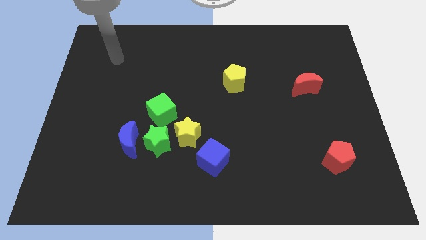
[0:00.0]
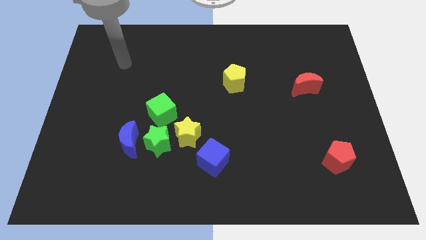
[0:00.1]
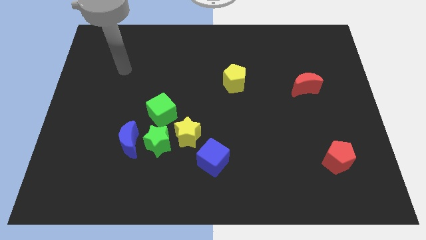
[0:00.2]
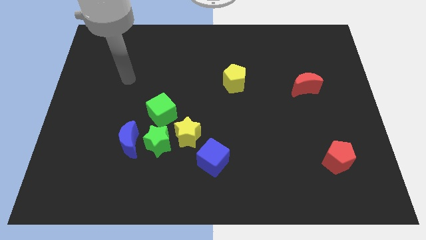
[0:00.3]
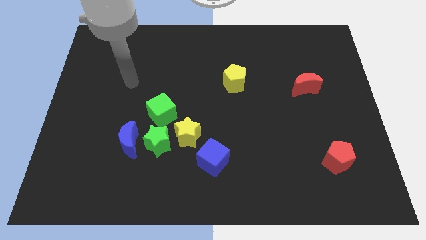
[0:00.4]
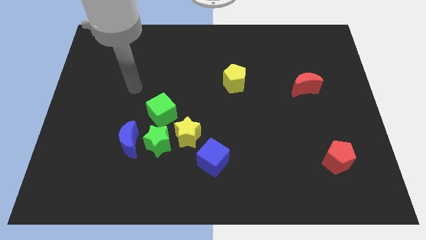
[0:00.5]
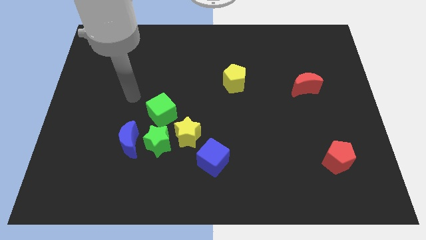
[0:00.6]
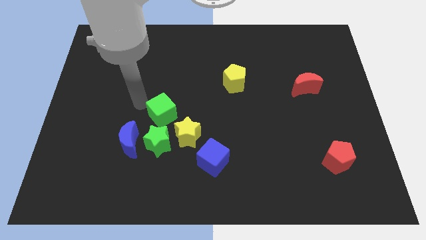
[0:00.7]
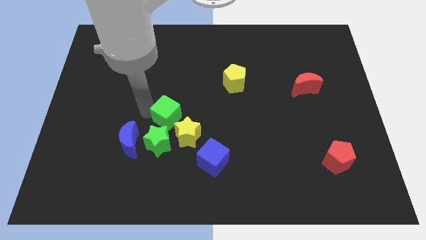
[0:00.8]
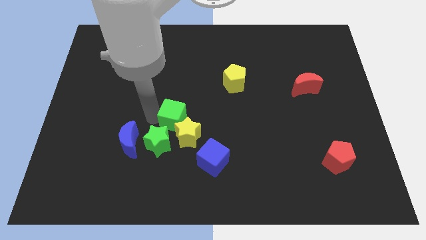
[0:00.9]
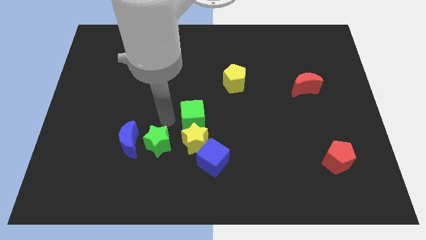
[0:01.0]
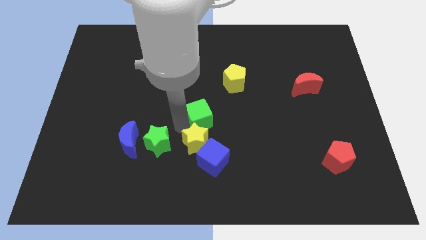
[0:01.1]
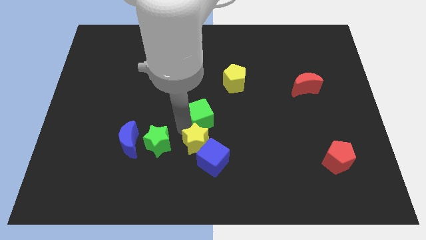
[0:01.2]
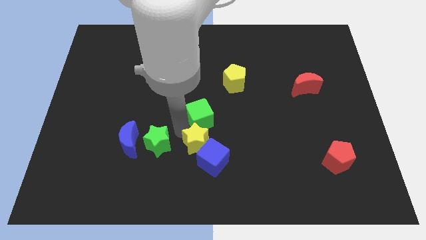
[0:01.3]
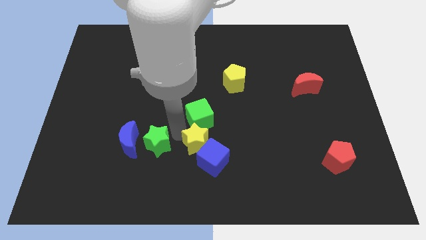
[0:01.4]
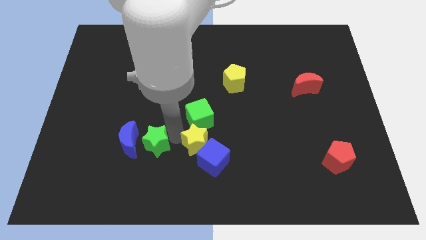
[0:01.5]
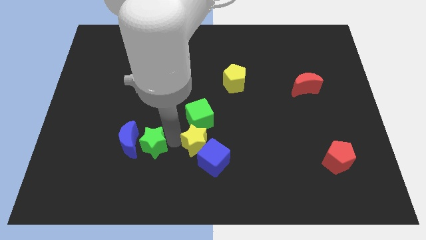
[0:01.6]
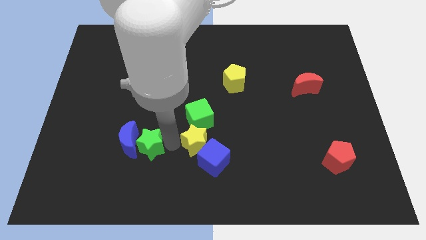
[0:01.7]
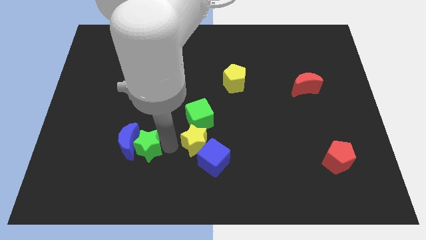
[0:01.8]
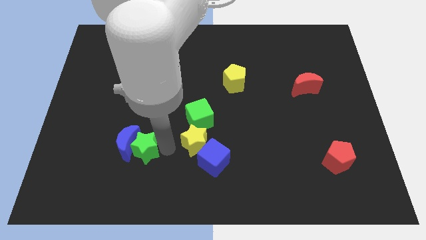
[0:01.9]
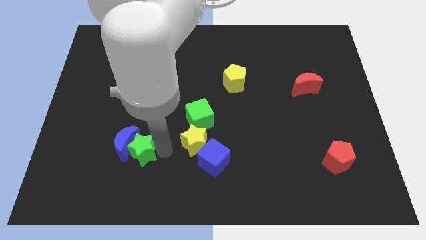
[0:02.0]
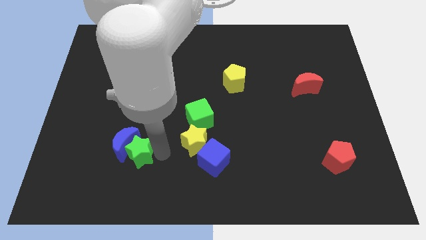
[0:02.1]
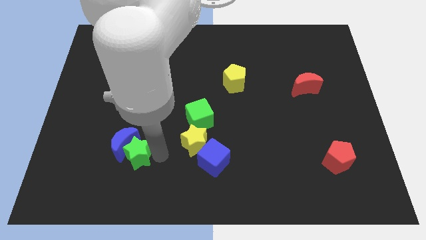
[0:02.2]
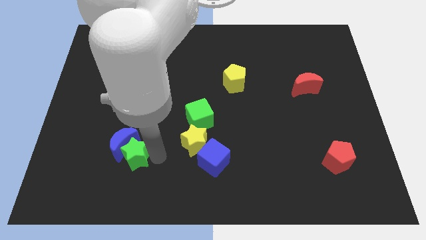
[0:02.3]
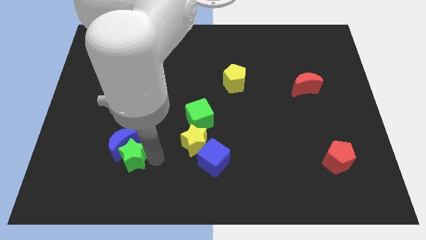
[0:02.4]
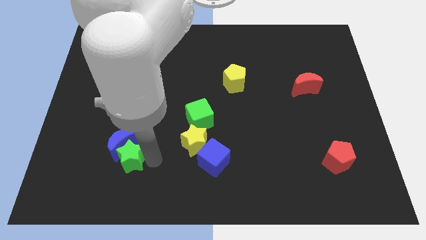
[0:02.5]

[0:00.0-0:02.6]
separate the green star from the group

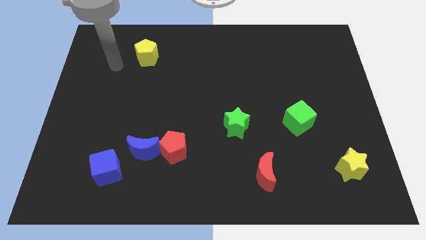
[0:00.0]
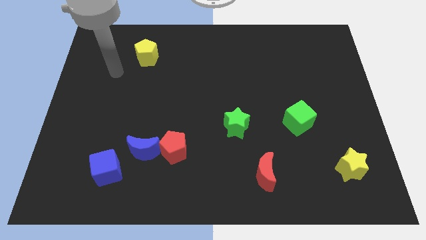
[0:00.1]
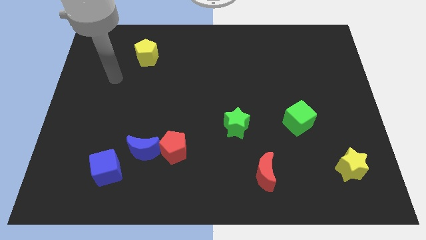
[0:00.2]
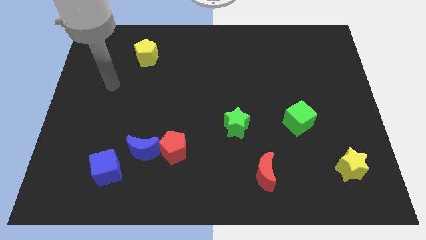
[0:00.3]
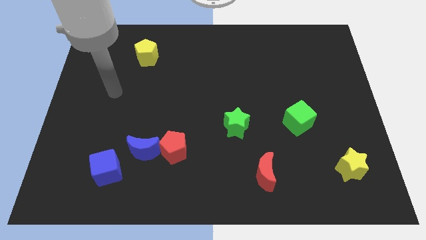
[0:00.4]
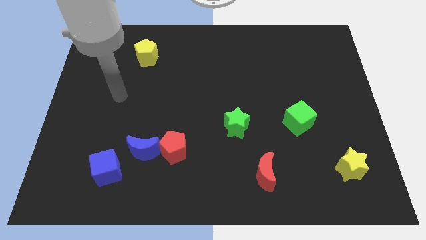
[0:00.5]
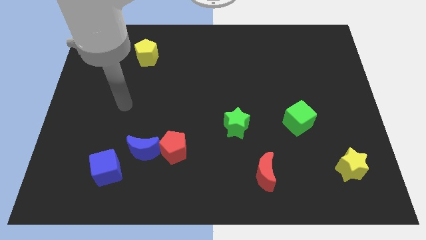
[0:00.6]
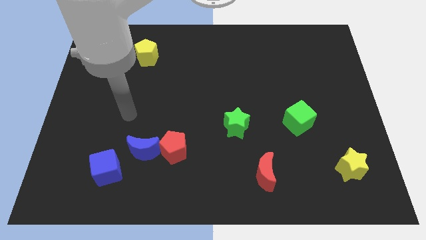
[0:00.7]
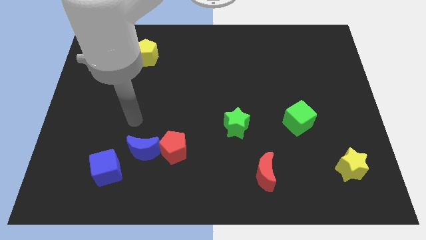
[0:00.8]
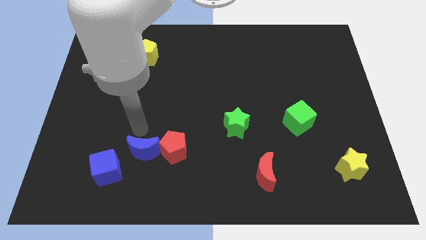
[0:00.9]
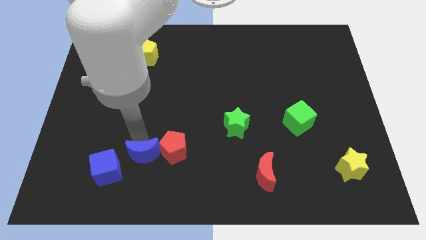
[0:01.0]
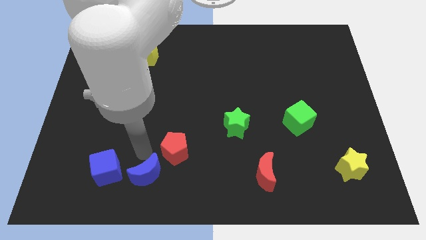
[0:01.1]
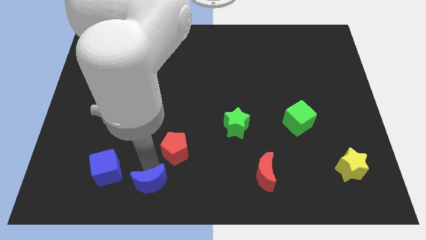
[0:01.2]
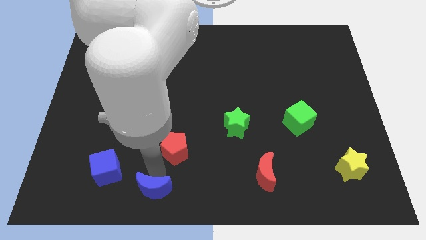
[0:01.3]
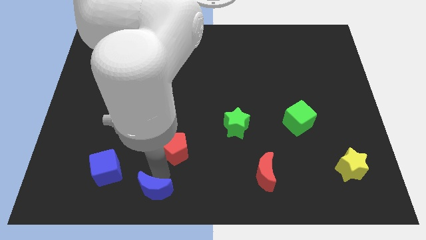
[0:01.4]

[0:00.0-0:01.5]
separate the red pentagon from the blue moon

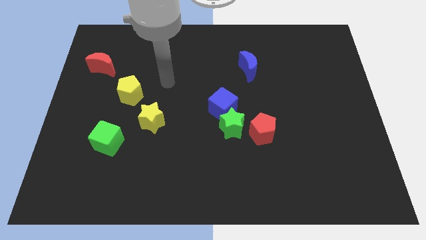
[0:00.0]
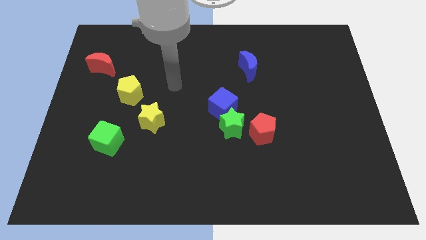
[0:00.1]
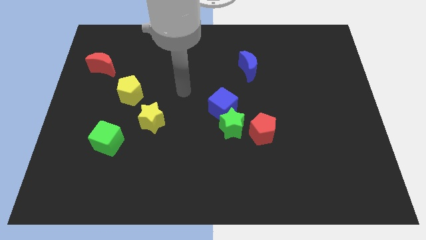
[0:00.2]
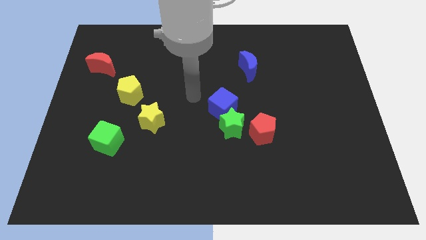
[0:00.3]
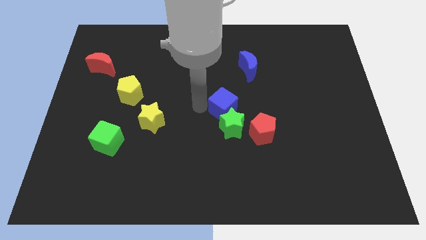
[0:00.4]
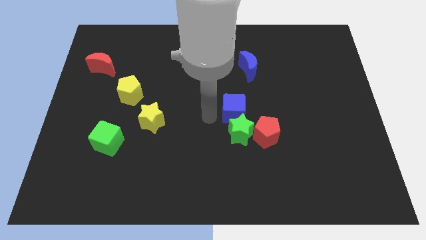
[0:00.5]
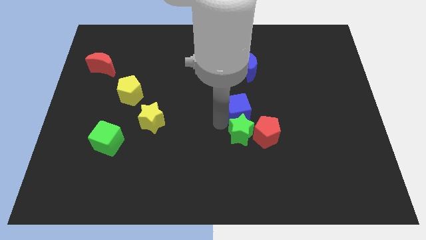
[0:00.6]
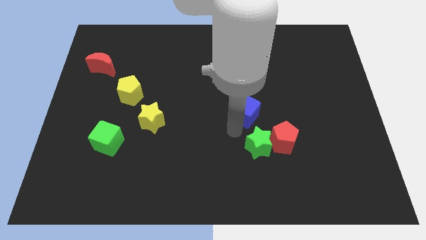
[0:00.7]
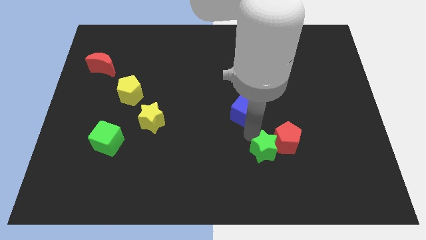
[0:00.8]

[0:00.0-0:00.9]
move the blue cube away from the green star

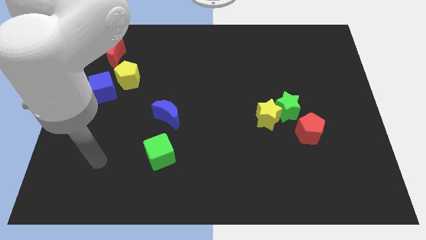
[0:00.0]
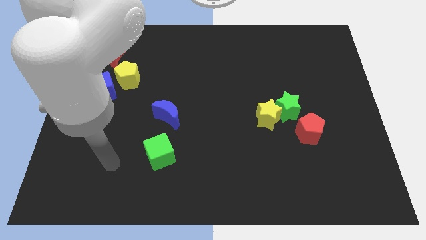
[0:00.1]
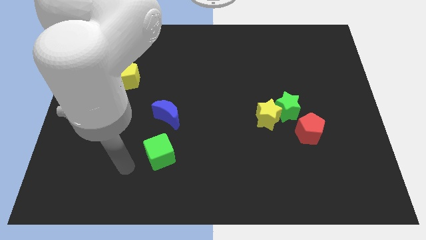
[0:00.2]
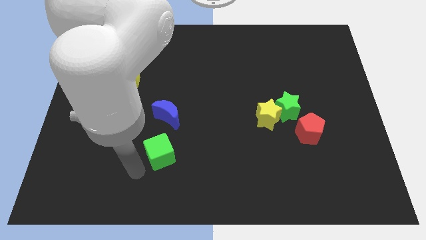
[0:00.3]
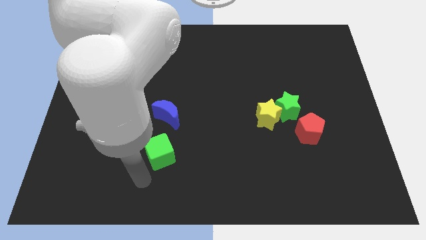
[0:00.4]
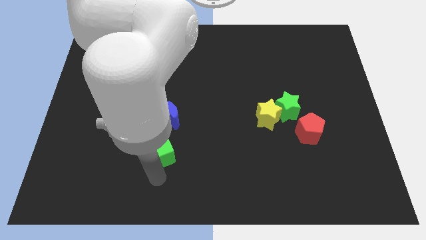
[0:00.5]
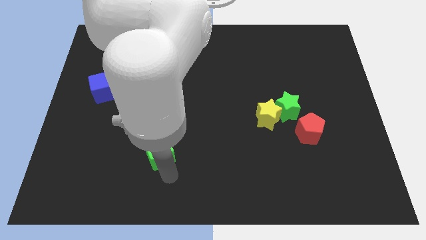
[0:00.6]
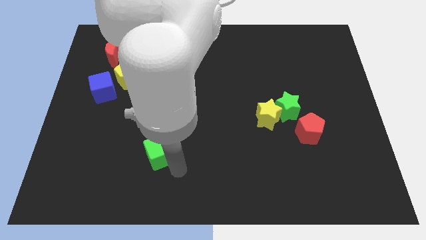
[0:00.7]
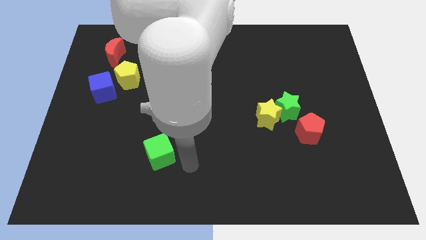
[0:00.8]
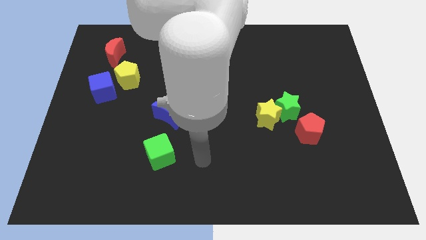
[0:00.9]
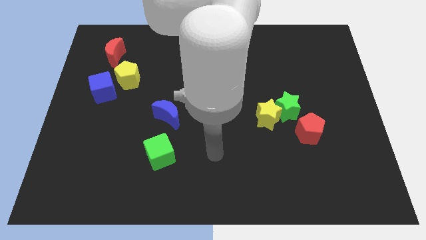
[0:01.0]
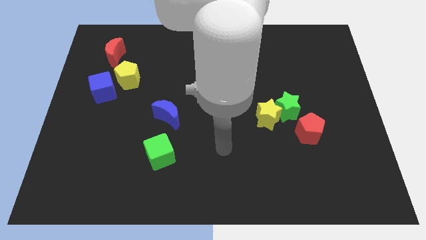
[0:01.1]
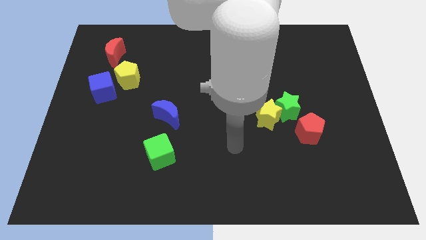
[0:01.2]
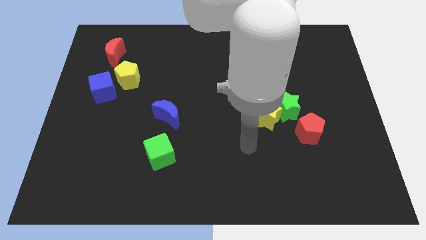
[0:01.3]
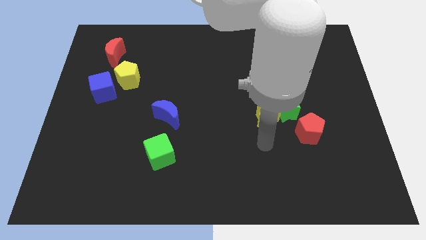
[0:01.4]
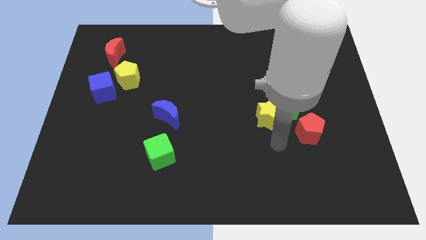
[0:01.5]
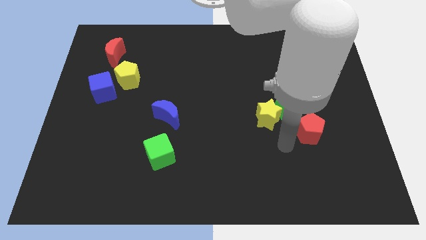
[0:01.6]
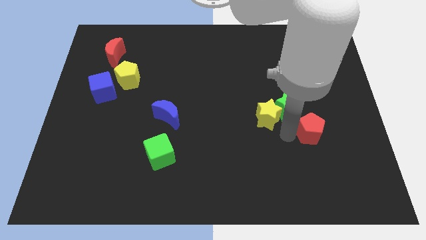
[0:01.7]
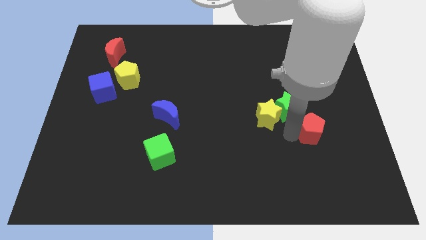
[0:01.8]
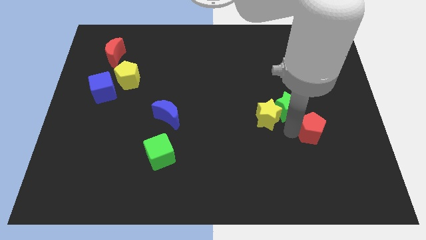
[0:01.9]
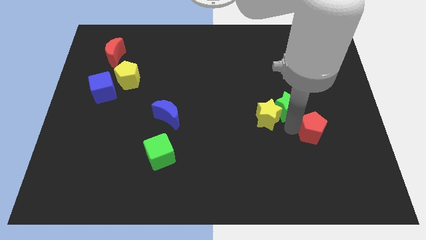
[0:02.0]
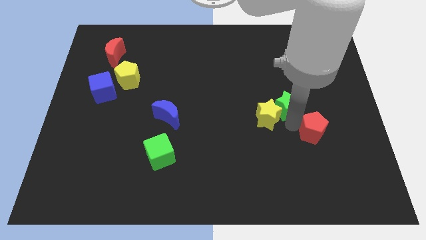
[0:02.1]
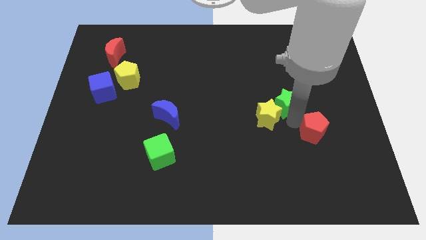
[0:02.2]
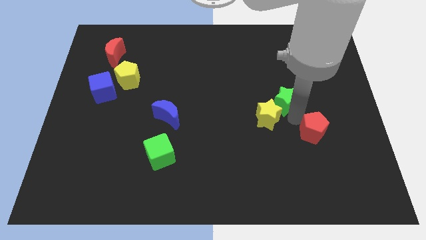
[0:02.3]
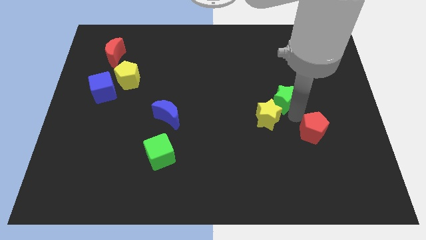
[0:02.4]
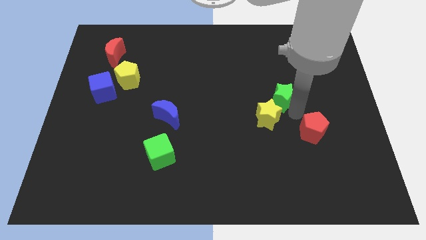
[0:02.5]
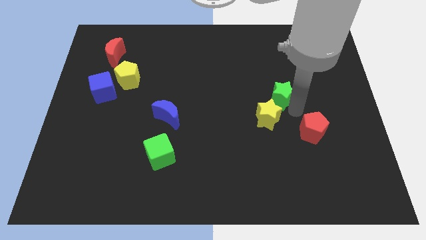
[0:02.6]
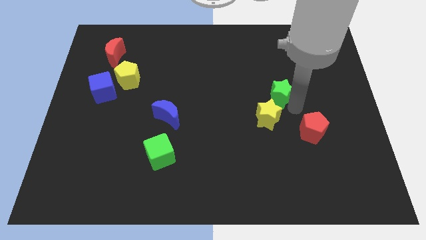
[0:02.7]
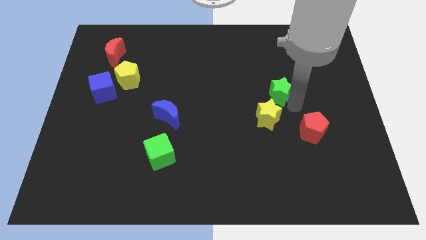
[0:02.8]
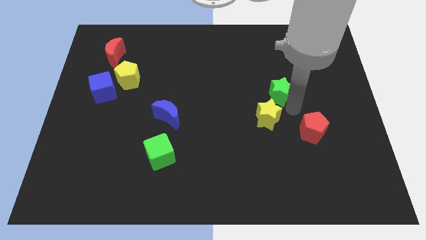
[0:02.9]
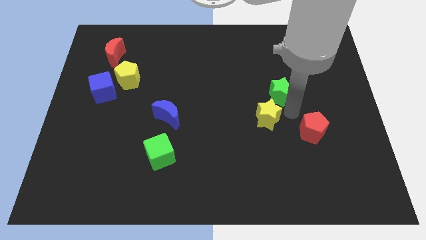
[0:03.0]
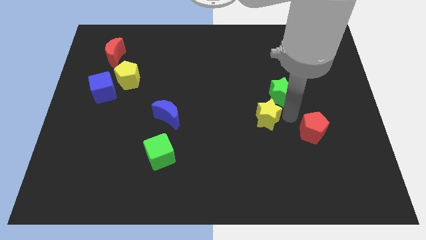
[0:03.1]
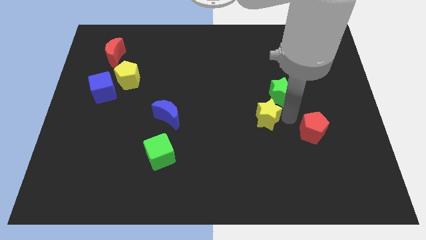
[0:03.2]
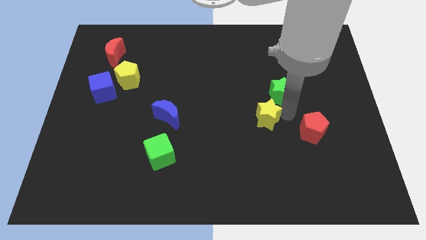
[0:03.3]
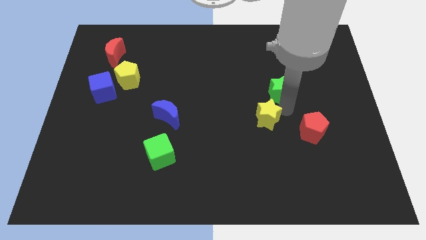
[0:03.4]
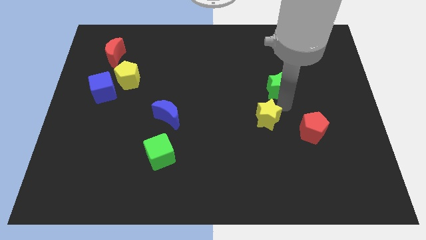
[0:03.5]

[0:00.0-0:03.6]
separate the green star from the yellow star and red pentagon

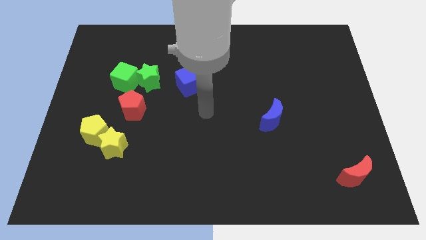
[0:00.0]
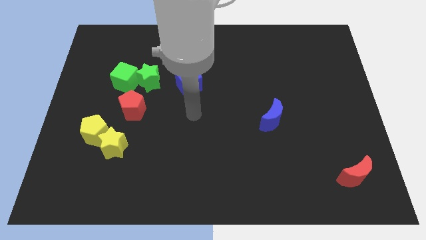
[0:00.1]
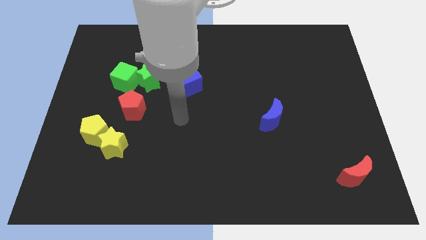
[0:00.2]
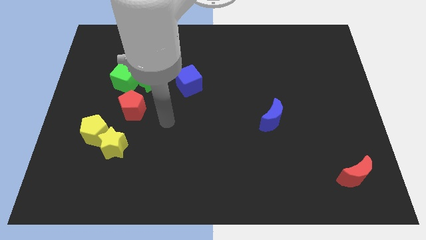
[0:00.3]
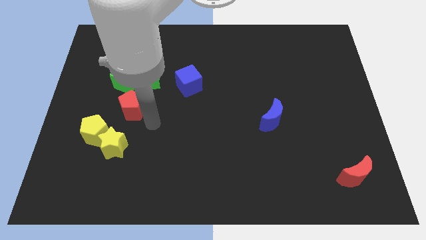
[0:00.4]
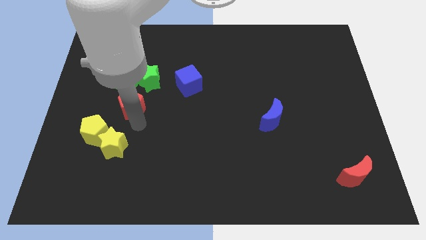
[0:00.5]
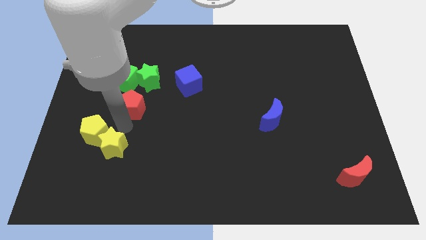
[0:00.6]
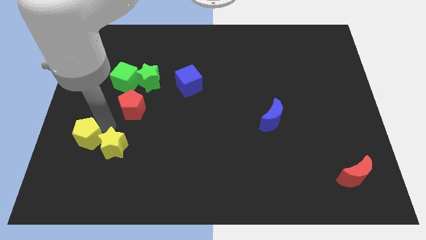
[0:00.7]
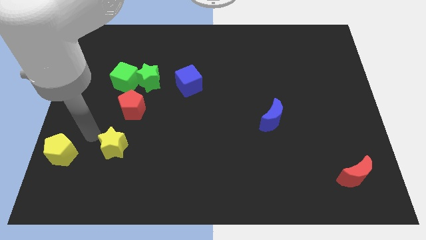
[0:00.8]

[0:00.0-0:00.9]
pull the yellow star apart from the yellow pentagon
